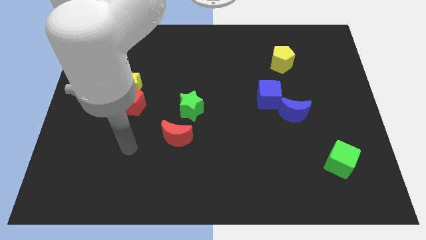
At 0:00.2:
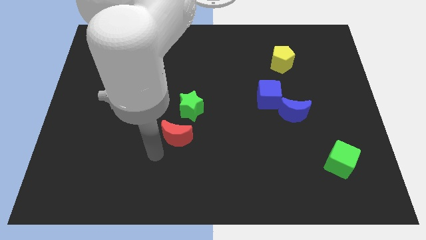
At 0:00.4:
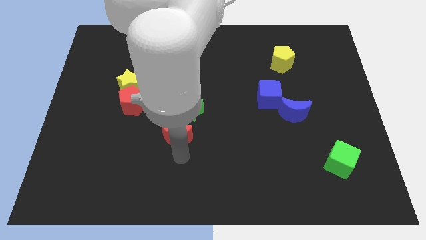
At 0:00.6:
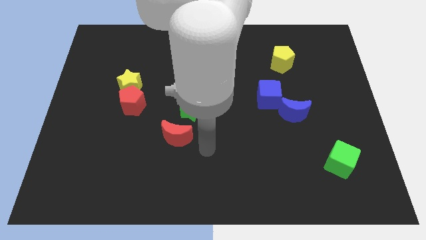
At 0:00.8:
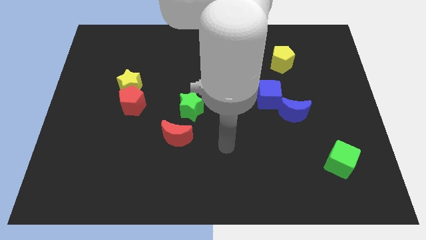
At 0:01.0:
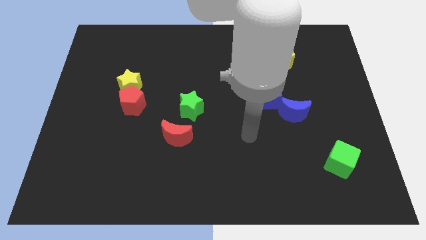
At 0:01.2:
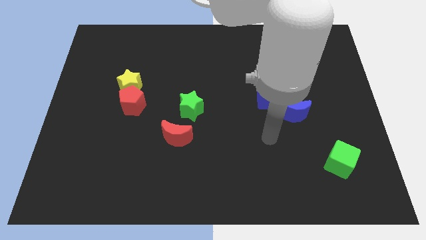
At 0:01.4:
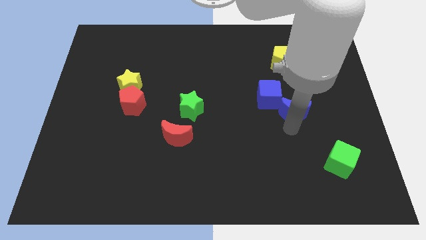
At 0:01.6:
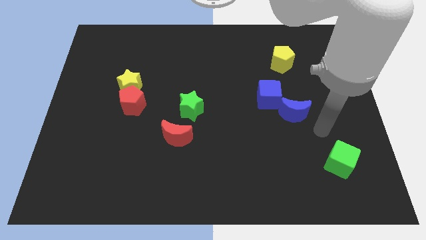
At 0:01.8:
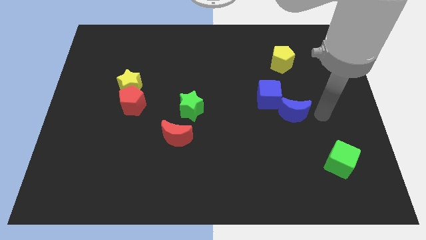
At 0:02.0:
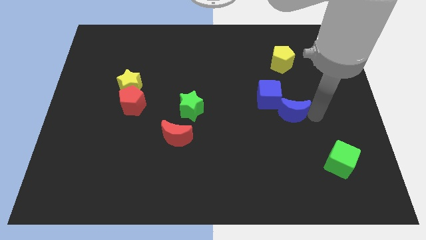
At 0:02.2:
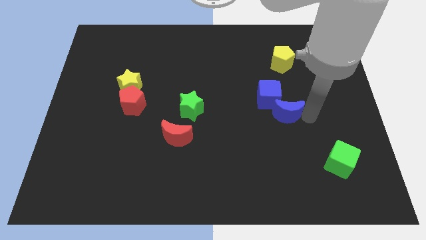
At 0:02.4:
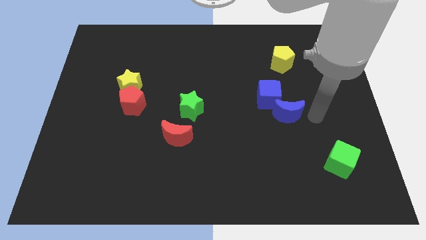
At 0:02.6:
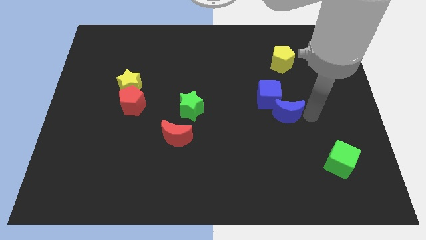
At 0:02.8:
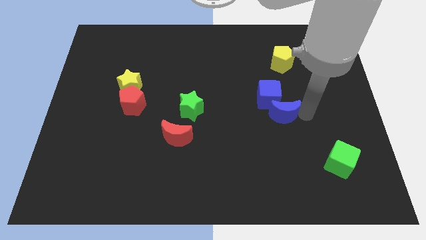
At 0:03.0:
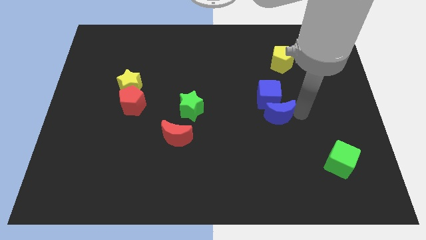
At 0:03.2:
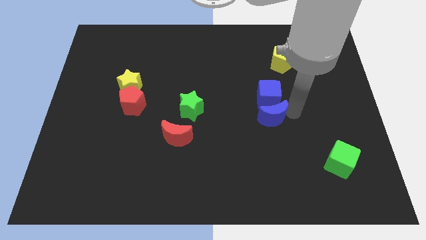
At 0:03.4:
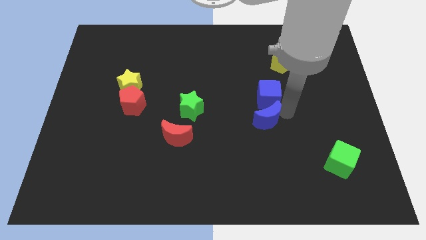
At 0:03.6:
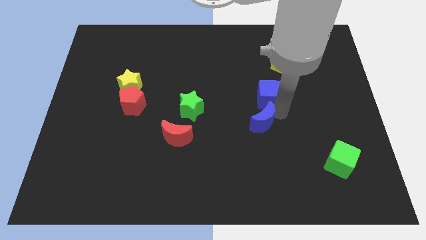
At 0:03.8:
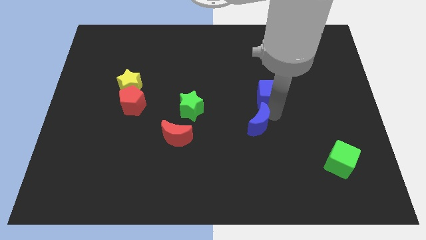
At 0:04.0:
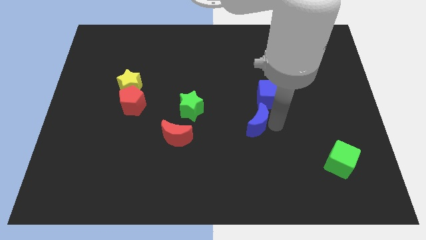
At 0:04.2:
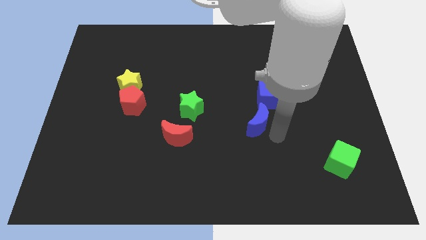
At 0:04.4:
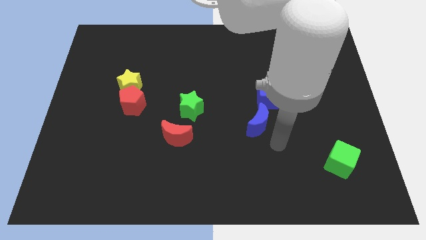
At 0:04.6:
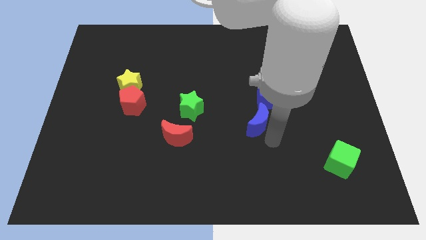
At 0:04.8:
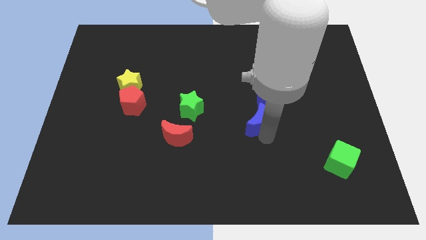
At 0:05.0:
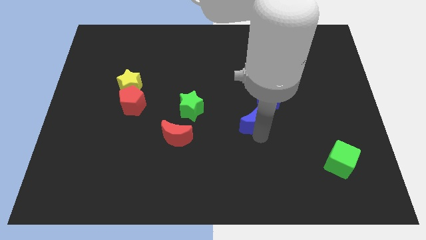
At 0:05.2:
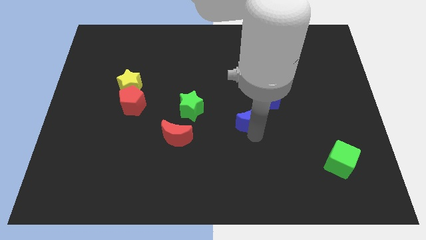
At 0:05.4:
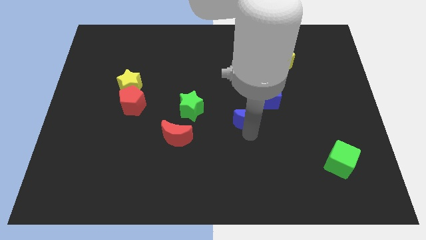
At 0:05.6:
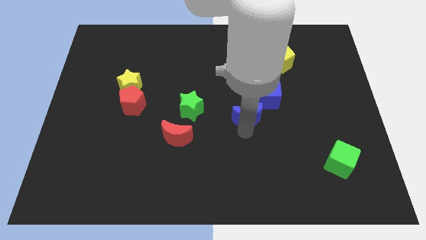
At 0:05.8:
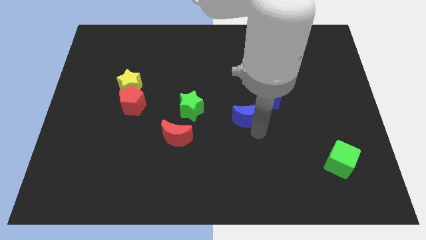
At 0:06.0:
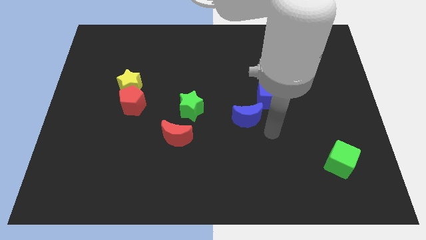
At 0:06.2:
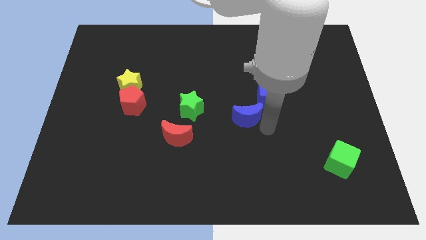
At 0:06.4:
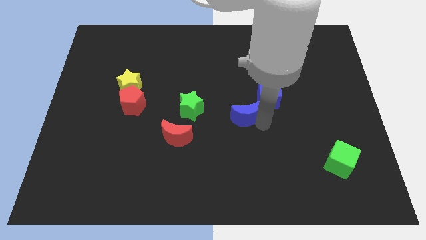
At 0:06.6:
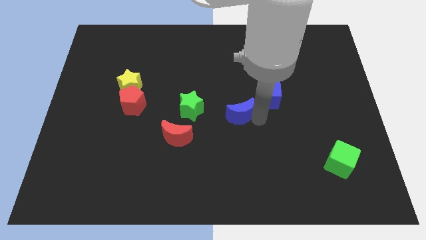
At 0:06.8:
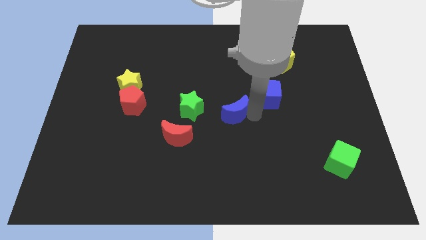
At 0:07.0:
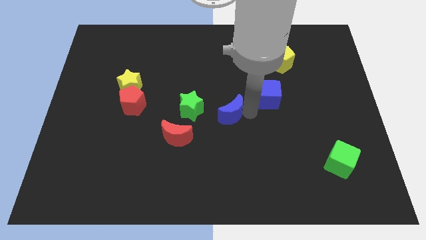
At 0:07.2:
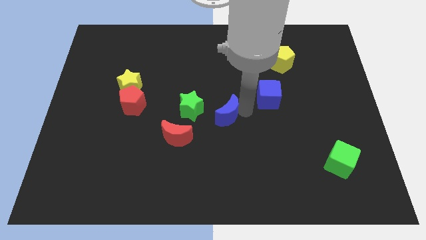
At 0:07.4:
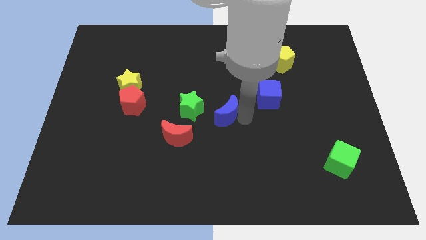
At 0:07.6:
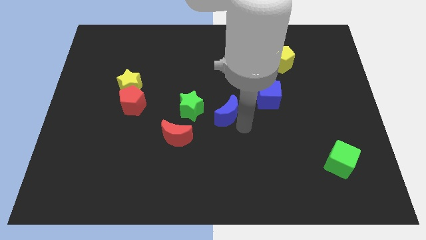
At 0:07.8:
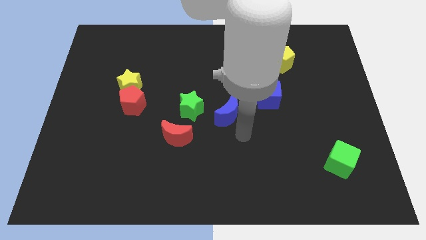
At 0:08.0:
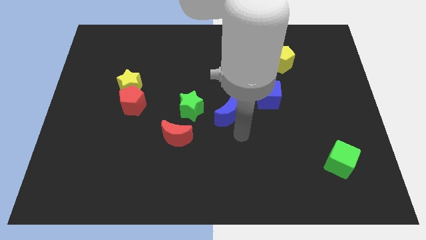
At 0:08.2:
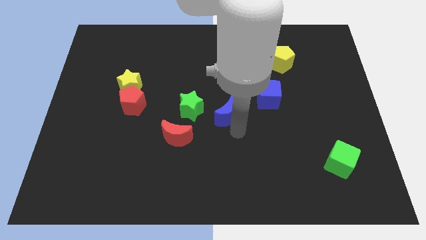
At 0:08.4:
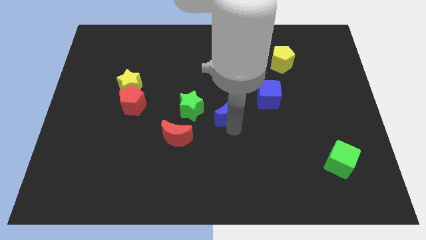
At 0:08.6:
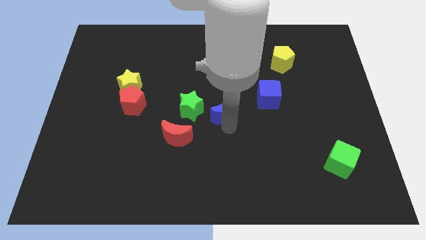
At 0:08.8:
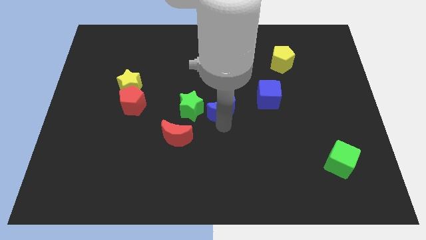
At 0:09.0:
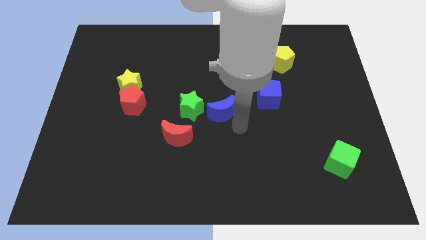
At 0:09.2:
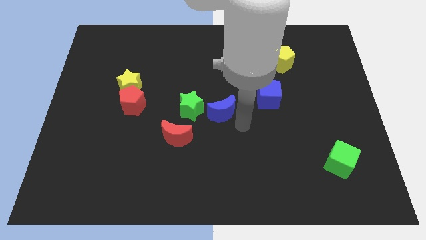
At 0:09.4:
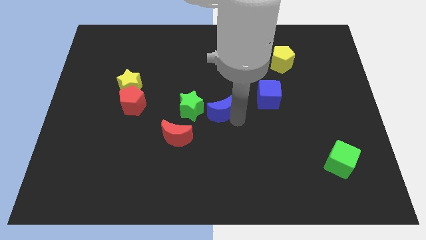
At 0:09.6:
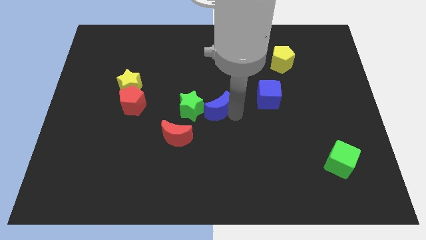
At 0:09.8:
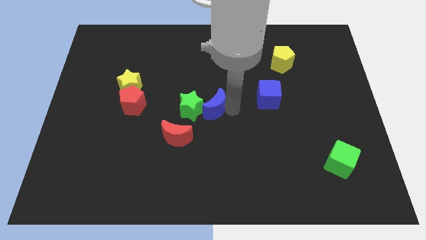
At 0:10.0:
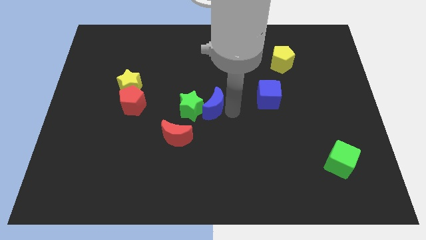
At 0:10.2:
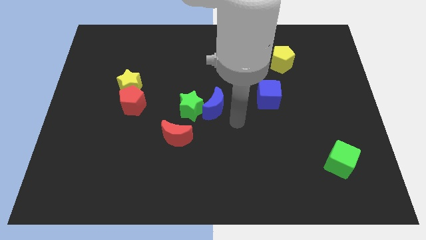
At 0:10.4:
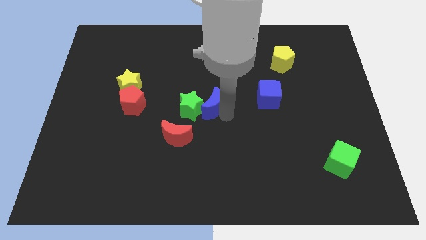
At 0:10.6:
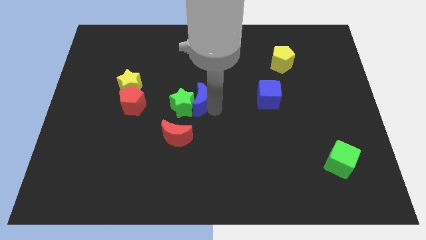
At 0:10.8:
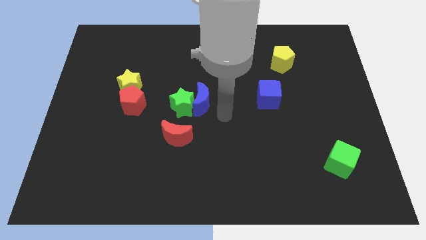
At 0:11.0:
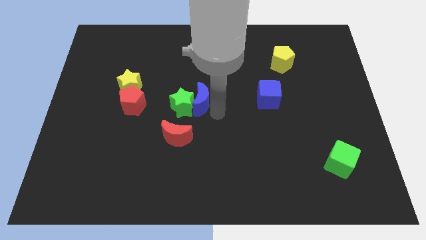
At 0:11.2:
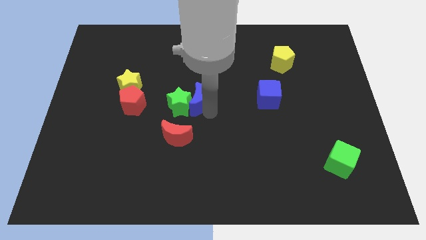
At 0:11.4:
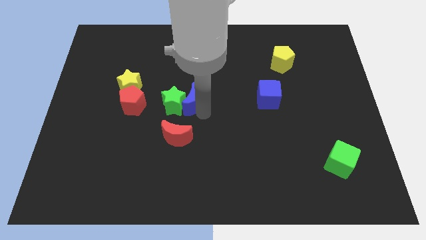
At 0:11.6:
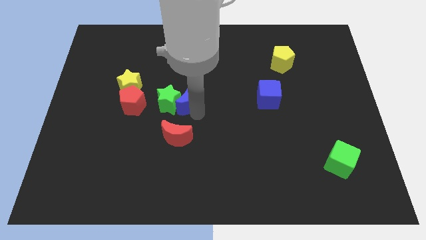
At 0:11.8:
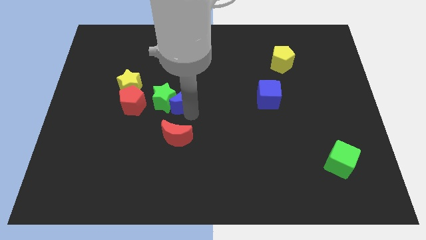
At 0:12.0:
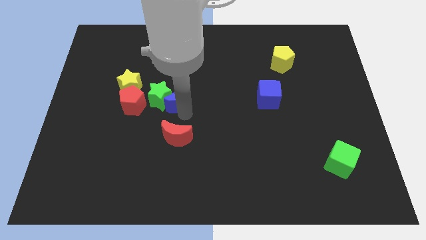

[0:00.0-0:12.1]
push the blue moon to the right of the yellow star

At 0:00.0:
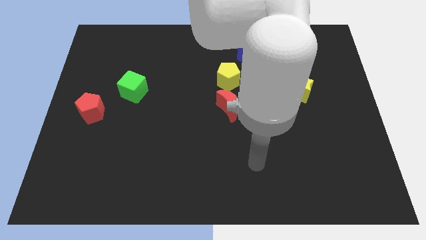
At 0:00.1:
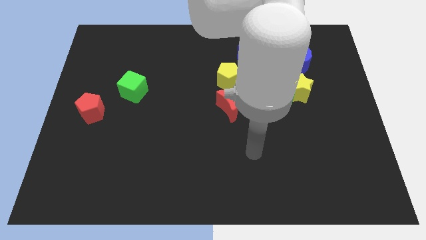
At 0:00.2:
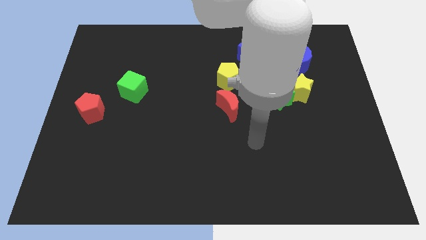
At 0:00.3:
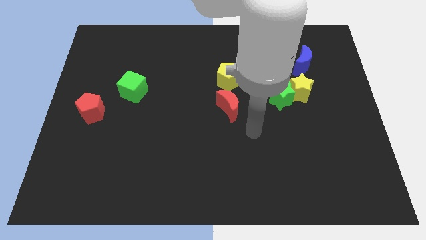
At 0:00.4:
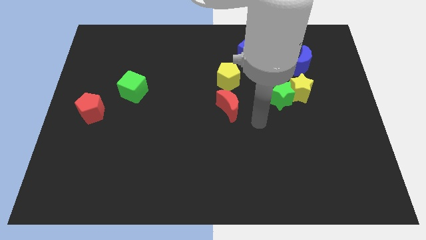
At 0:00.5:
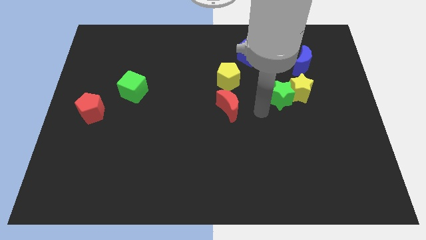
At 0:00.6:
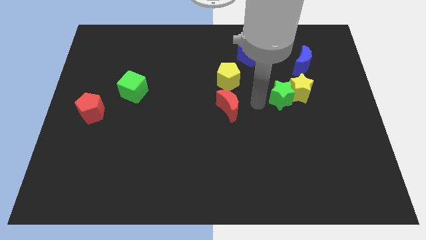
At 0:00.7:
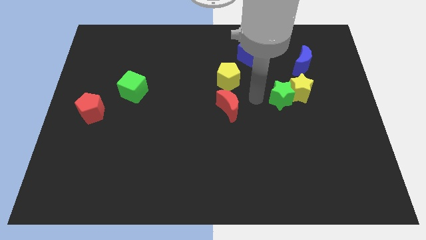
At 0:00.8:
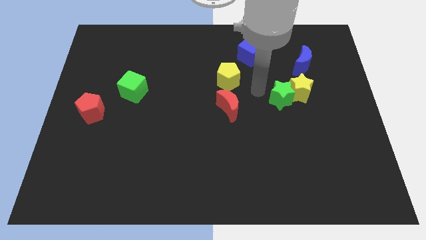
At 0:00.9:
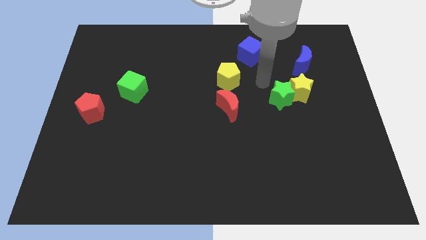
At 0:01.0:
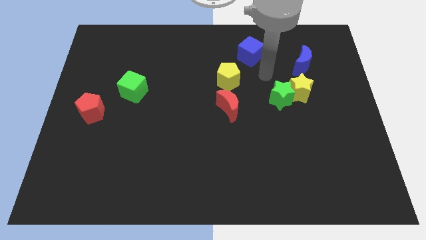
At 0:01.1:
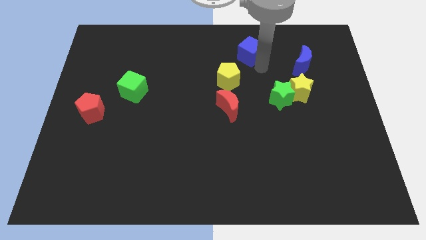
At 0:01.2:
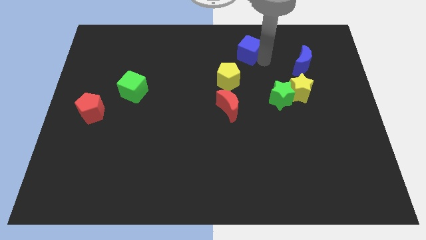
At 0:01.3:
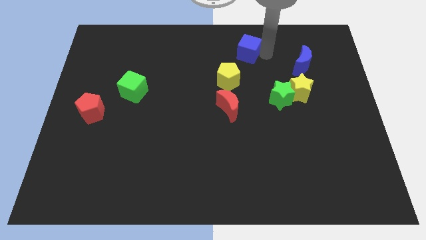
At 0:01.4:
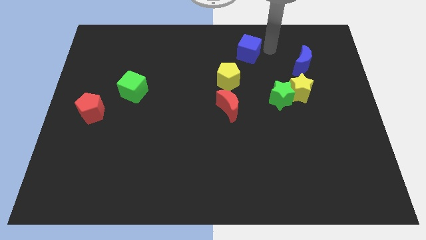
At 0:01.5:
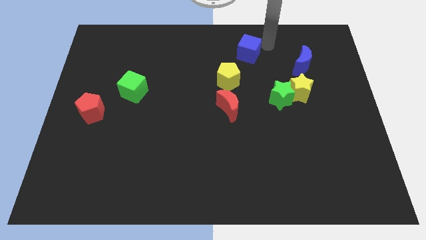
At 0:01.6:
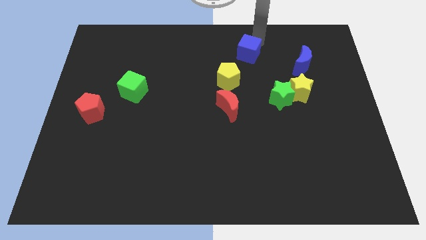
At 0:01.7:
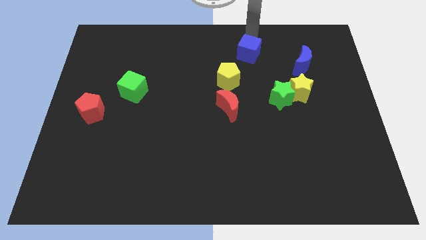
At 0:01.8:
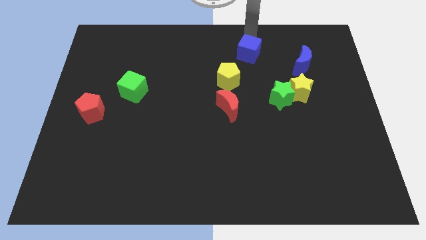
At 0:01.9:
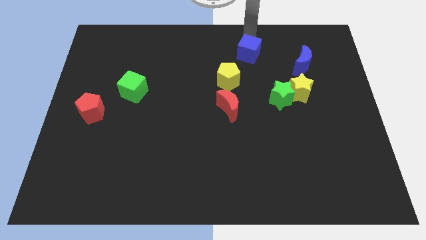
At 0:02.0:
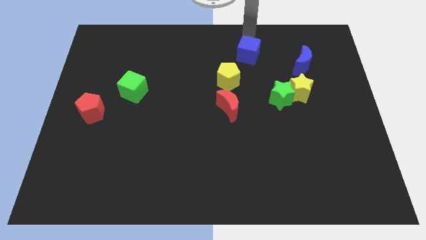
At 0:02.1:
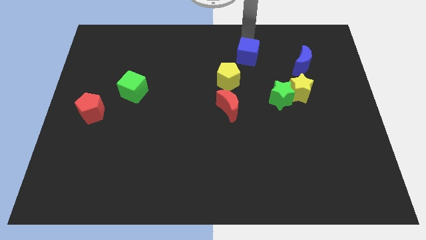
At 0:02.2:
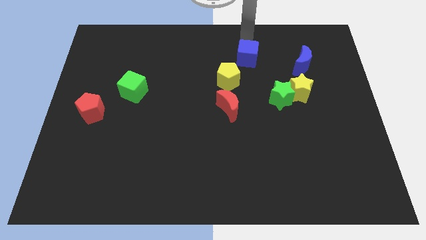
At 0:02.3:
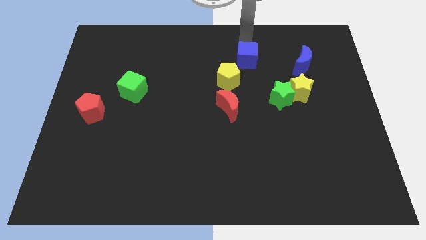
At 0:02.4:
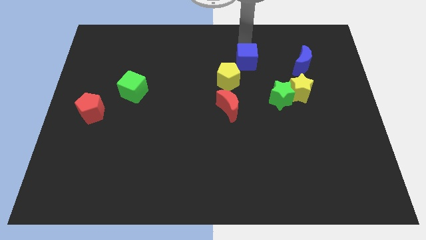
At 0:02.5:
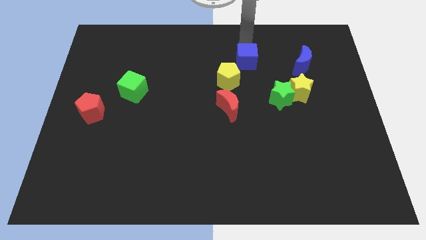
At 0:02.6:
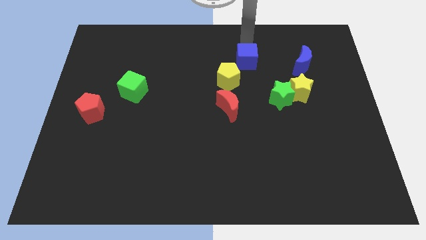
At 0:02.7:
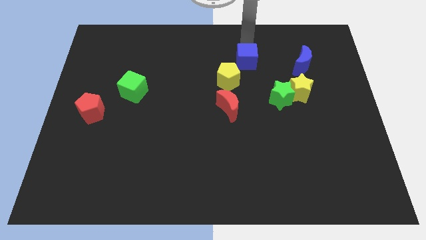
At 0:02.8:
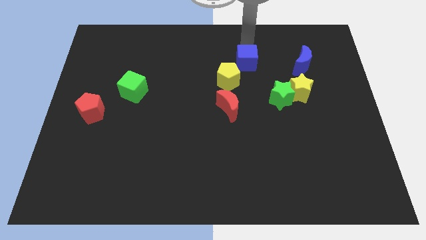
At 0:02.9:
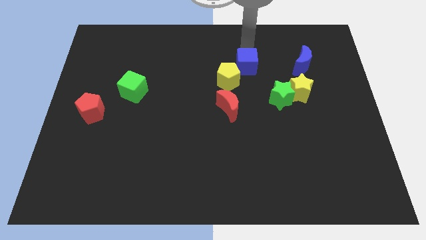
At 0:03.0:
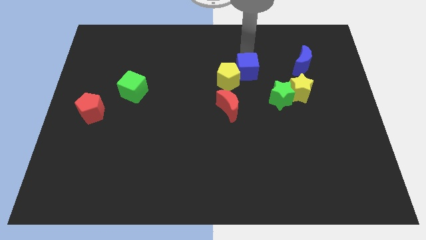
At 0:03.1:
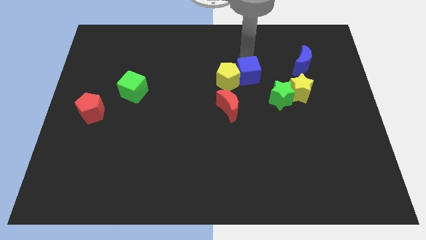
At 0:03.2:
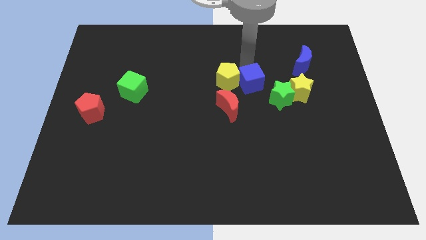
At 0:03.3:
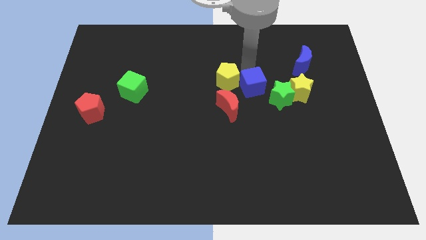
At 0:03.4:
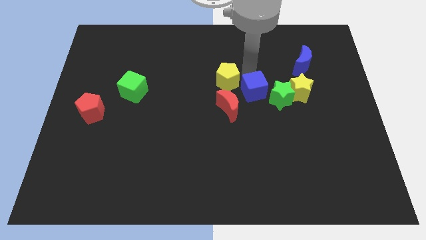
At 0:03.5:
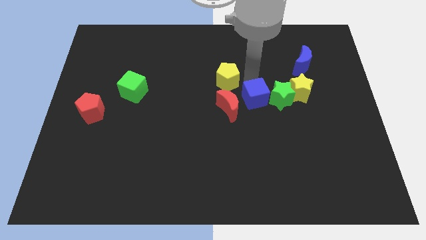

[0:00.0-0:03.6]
put the blue cube to the right side of the red moon
